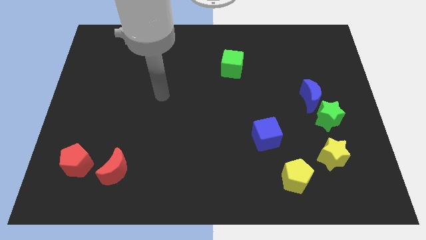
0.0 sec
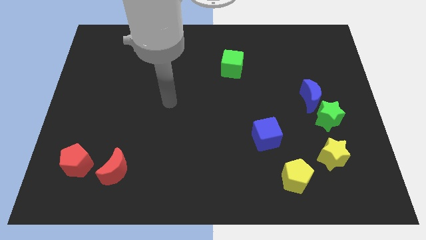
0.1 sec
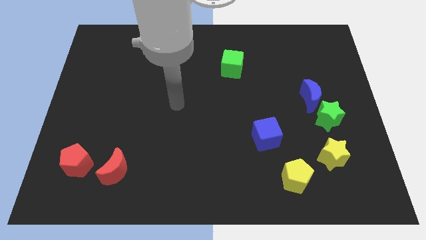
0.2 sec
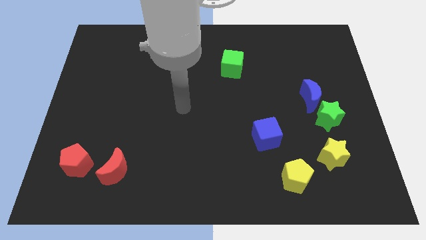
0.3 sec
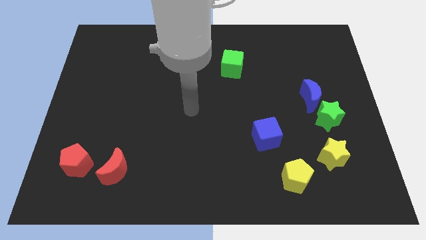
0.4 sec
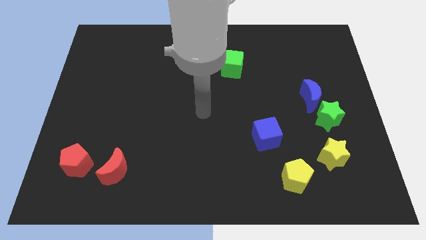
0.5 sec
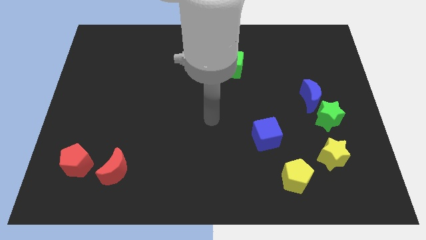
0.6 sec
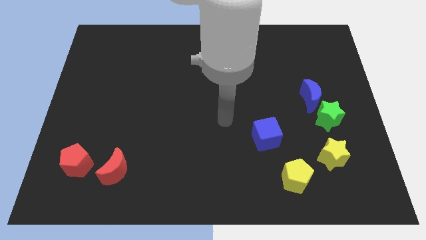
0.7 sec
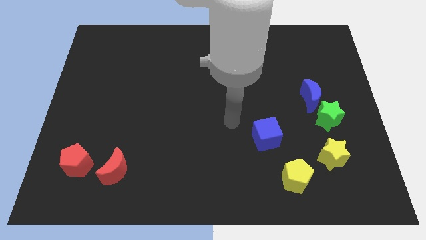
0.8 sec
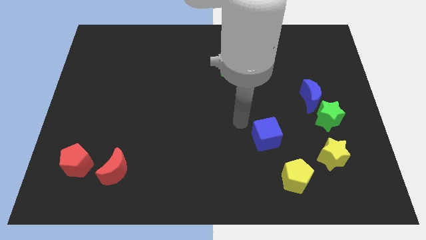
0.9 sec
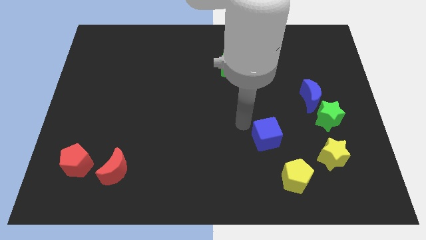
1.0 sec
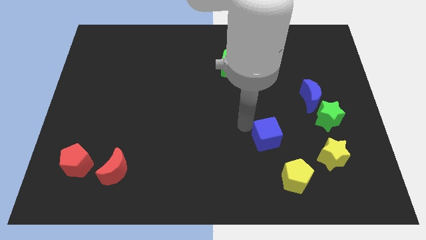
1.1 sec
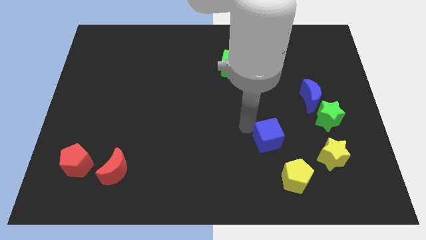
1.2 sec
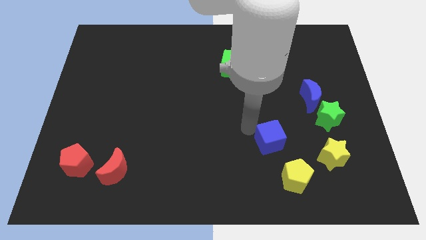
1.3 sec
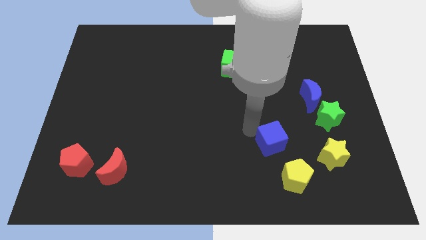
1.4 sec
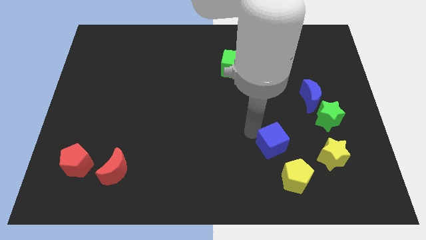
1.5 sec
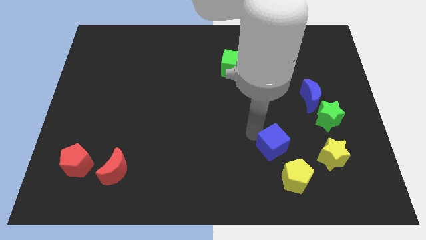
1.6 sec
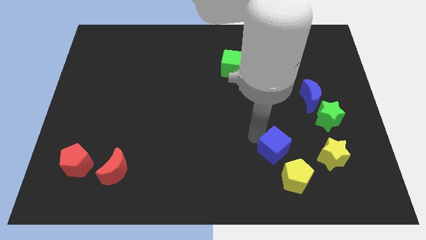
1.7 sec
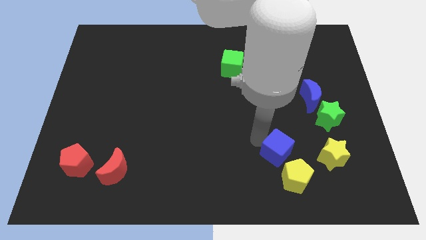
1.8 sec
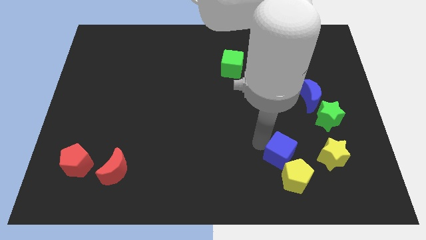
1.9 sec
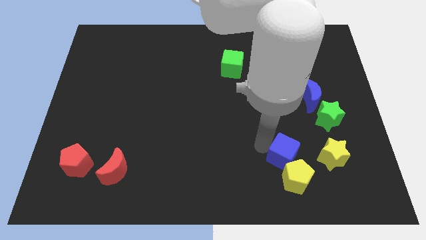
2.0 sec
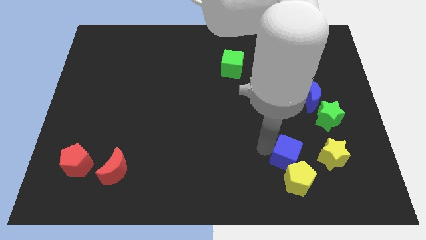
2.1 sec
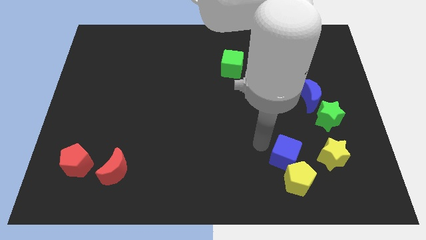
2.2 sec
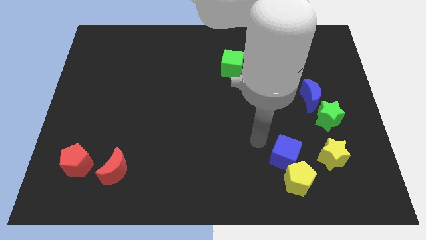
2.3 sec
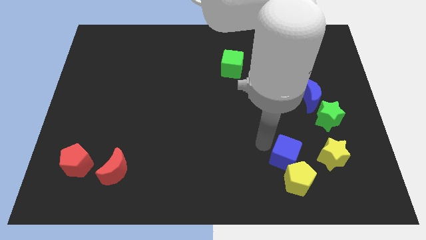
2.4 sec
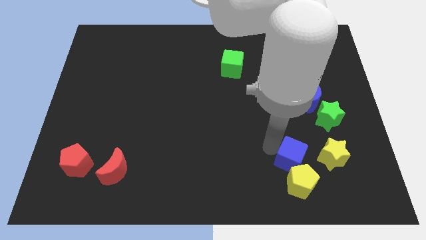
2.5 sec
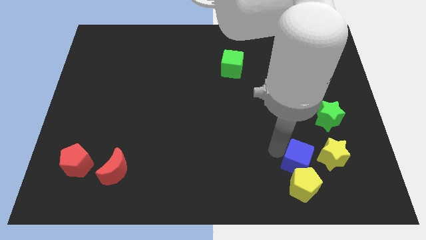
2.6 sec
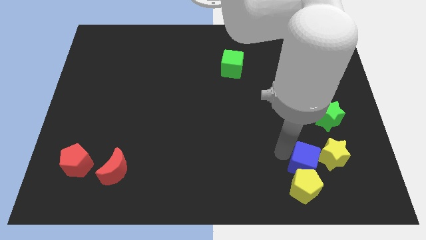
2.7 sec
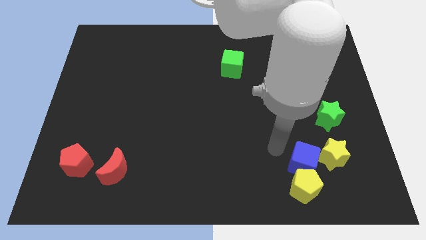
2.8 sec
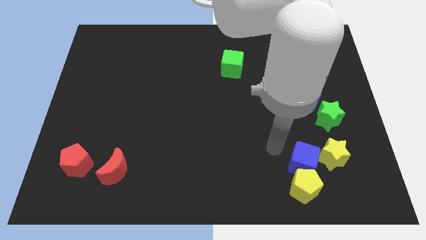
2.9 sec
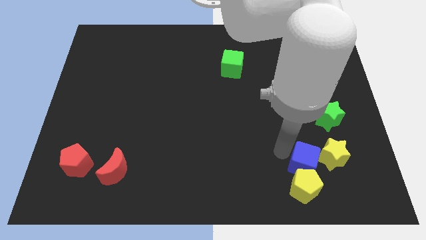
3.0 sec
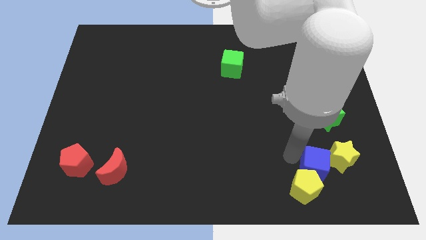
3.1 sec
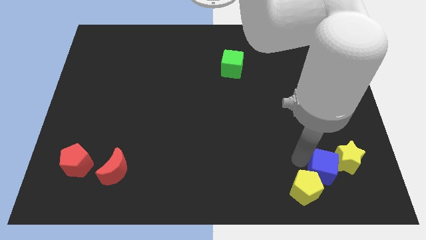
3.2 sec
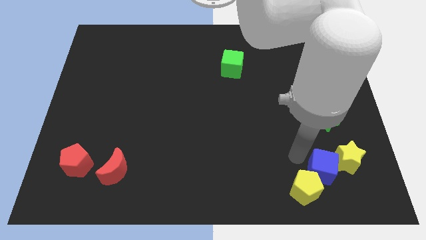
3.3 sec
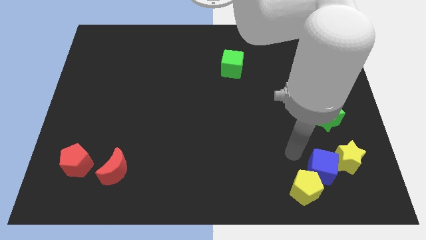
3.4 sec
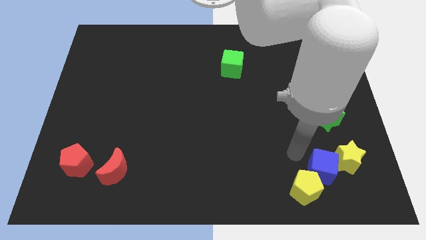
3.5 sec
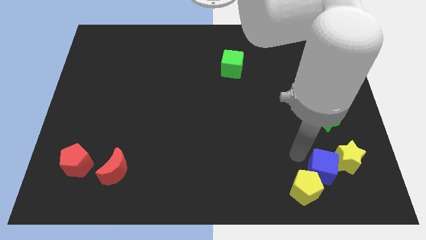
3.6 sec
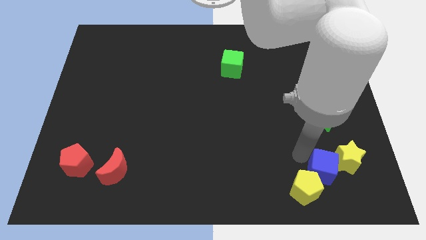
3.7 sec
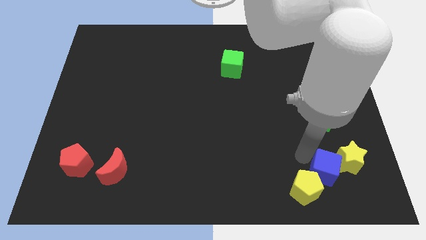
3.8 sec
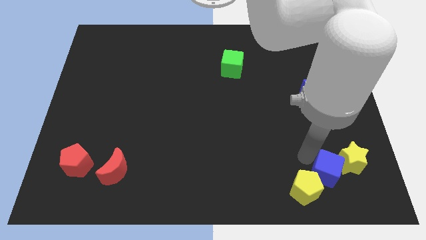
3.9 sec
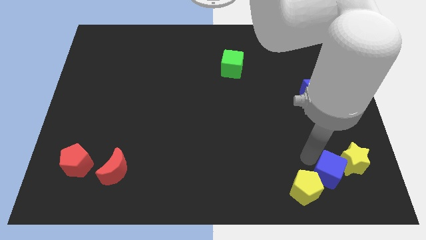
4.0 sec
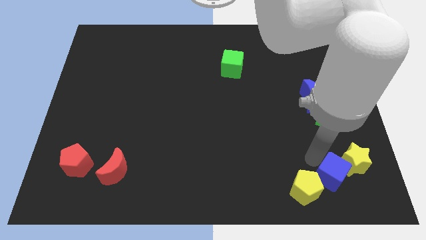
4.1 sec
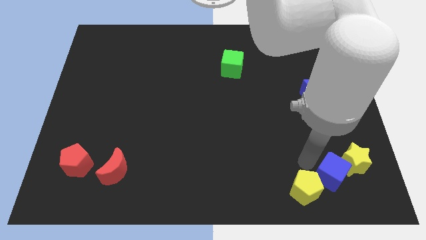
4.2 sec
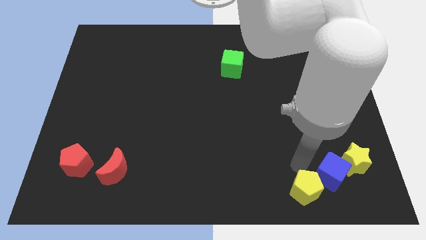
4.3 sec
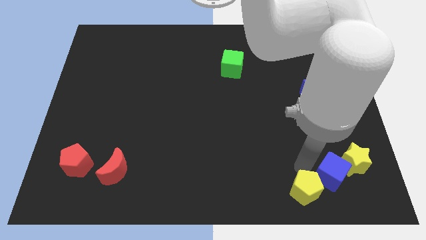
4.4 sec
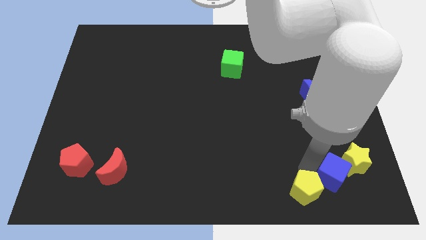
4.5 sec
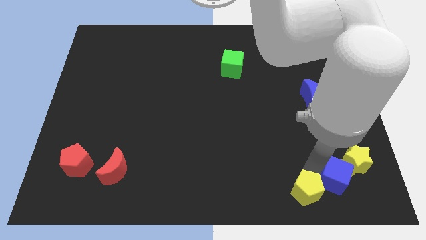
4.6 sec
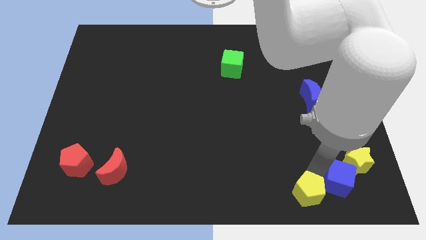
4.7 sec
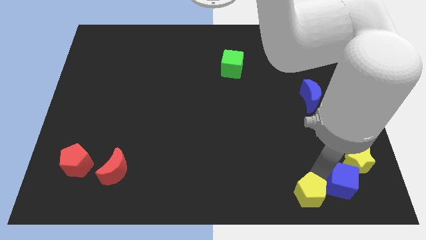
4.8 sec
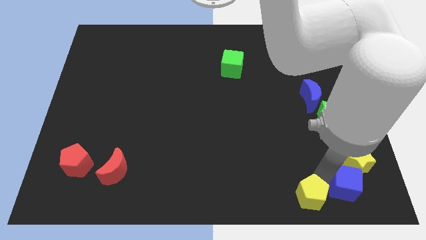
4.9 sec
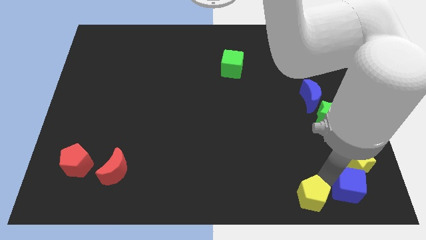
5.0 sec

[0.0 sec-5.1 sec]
push the blue cube to the bottom right corner
